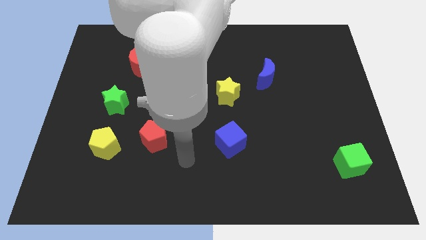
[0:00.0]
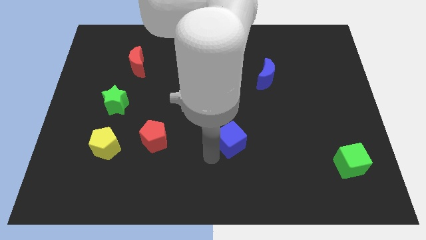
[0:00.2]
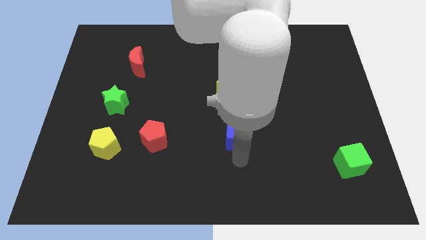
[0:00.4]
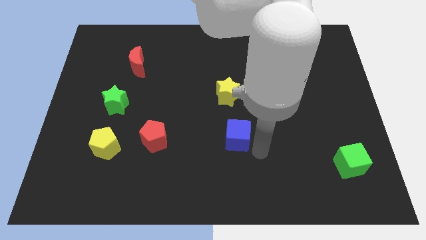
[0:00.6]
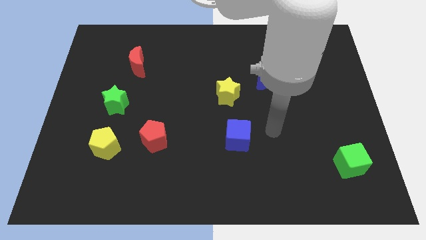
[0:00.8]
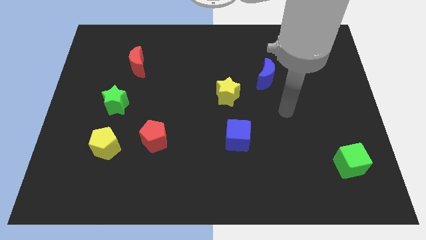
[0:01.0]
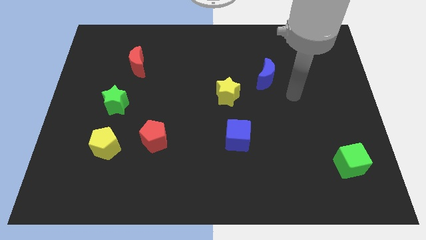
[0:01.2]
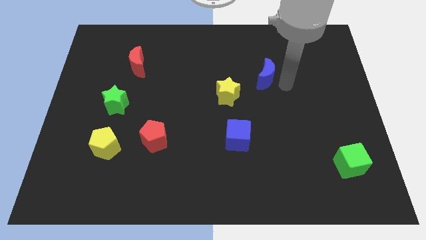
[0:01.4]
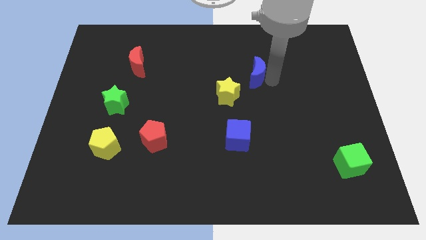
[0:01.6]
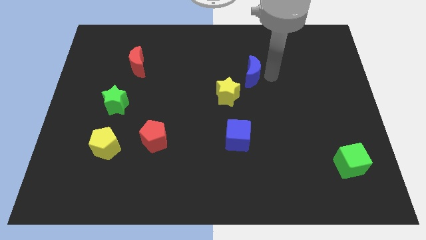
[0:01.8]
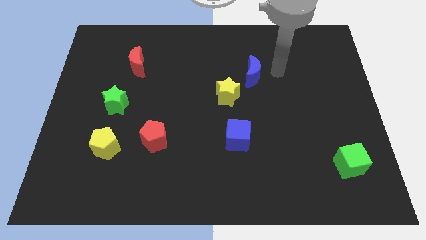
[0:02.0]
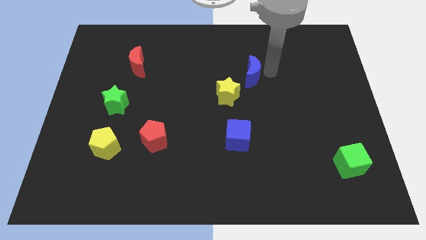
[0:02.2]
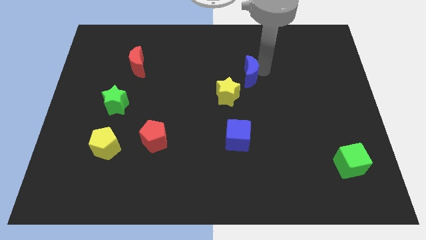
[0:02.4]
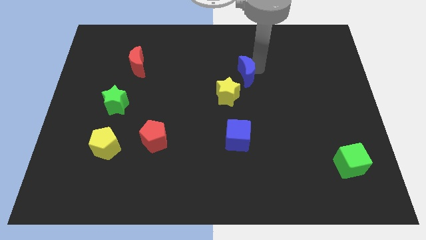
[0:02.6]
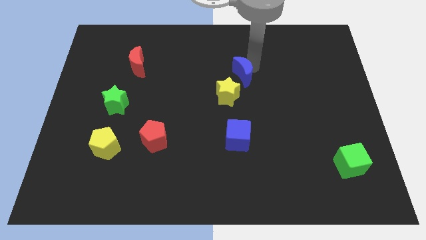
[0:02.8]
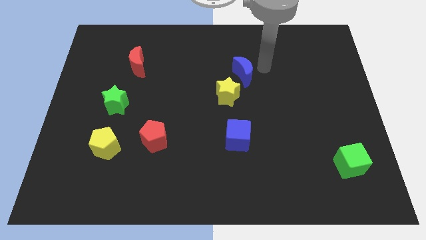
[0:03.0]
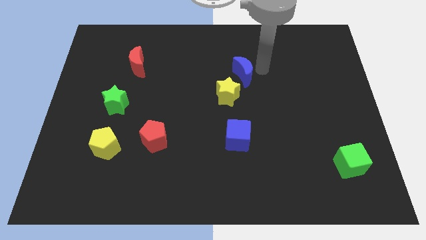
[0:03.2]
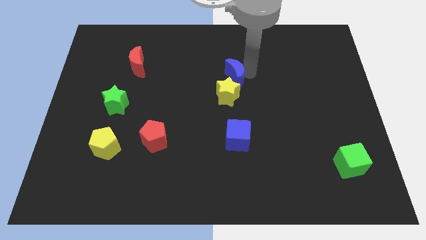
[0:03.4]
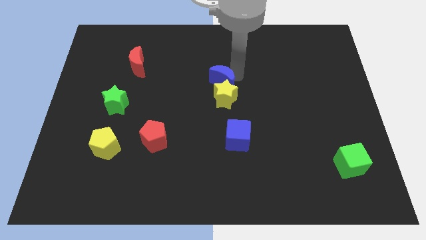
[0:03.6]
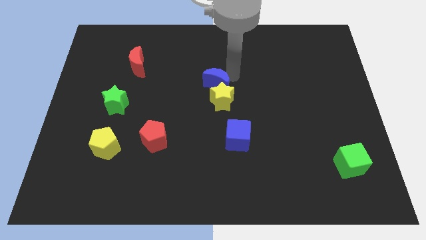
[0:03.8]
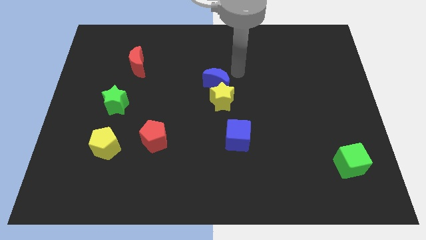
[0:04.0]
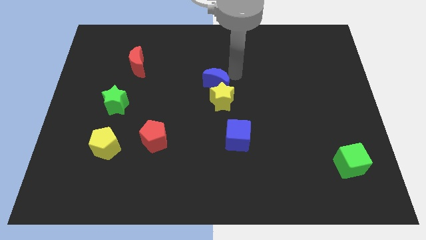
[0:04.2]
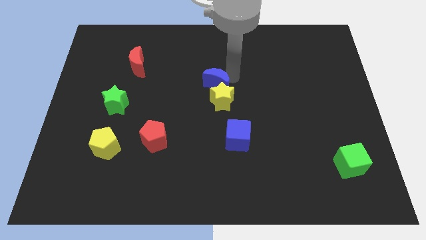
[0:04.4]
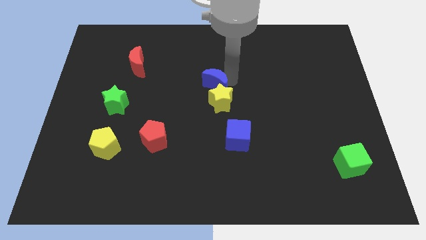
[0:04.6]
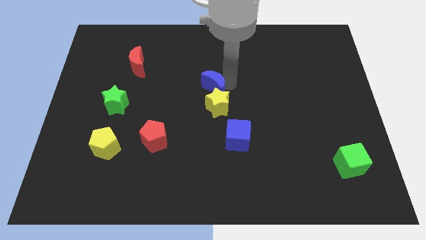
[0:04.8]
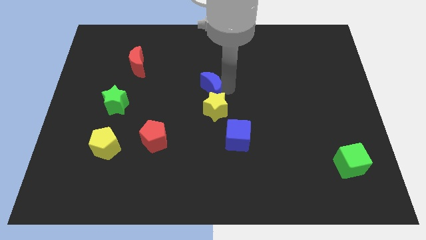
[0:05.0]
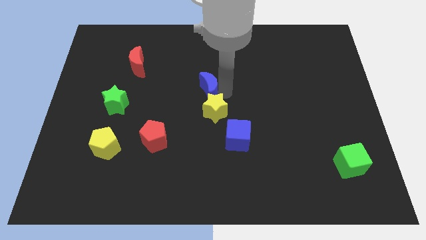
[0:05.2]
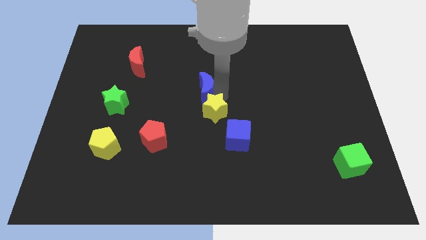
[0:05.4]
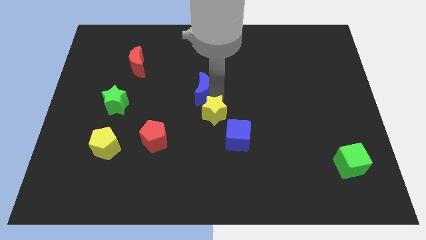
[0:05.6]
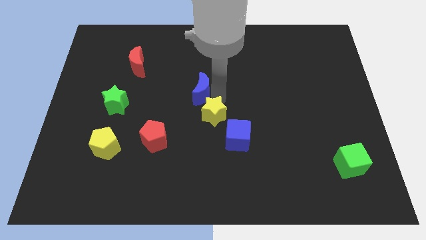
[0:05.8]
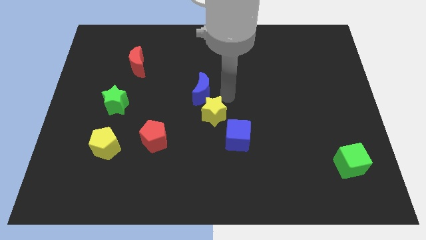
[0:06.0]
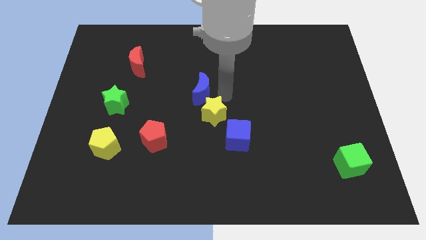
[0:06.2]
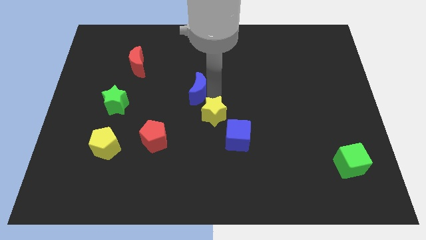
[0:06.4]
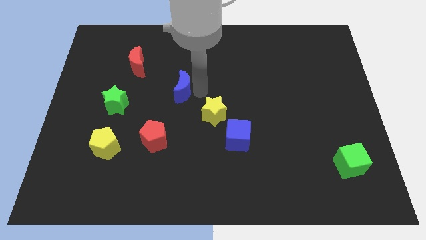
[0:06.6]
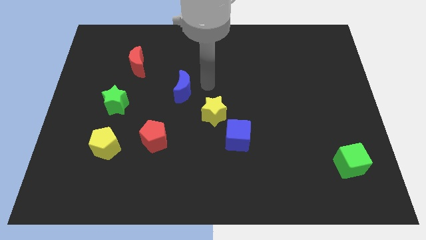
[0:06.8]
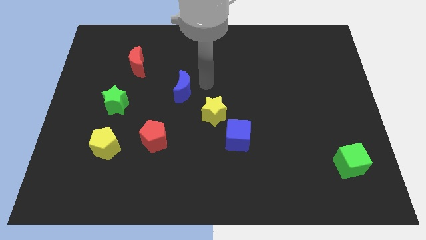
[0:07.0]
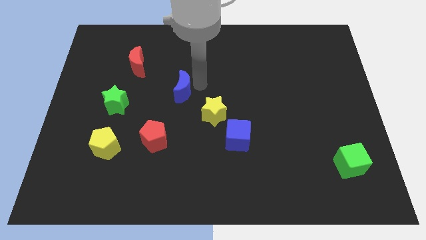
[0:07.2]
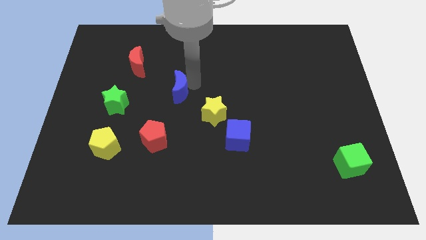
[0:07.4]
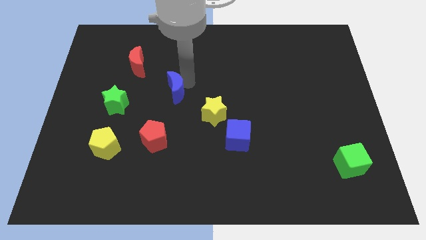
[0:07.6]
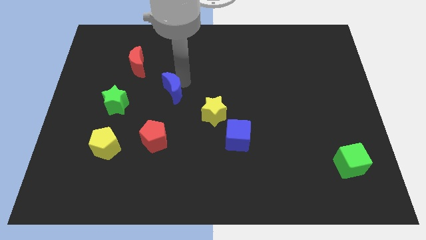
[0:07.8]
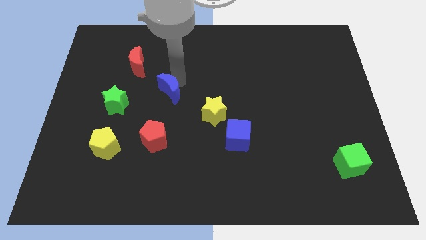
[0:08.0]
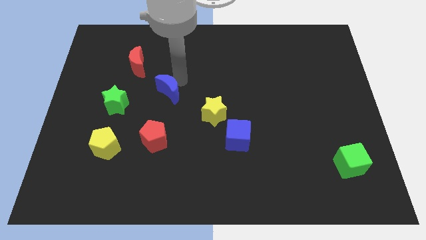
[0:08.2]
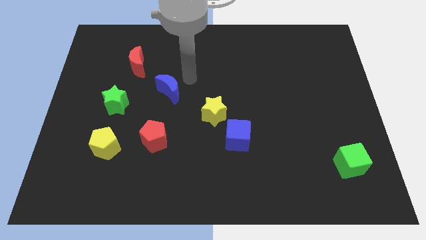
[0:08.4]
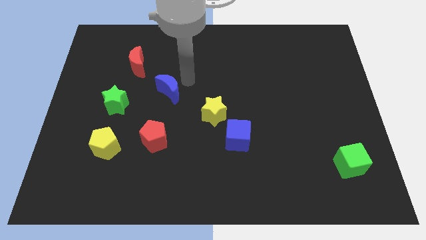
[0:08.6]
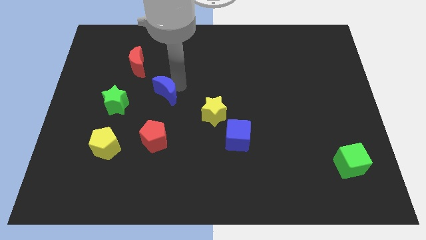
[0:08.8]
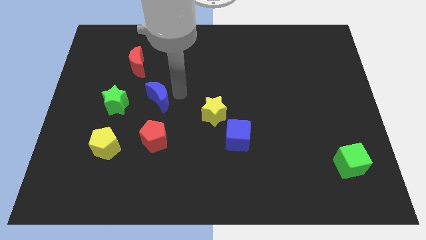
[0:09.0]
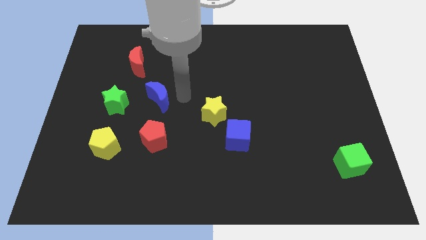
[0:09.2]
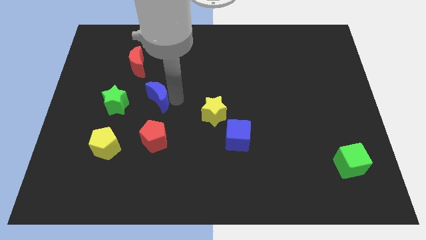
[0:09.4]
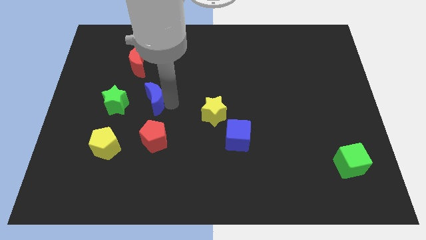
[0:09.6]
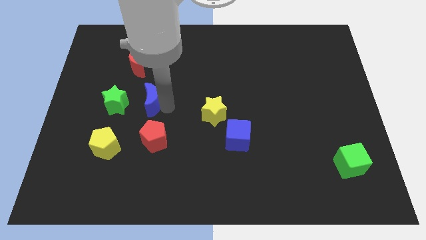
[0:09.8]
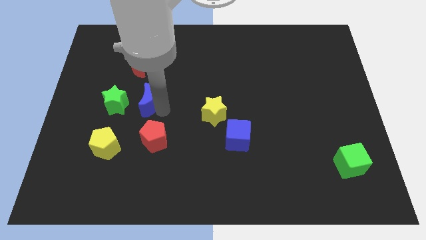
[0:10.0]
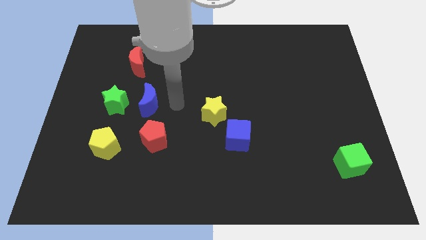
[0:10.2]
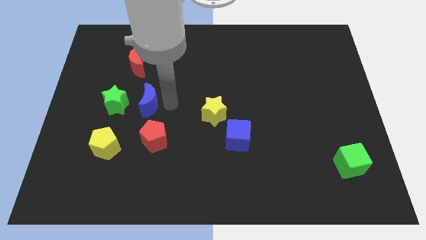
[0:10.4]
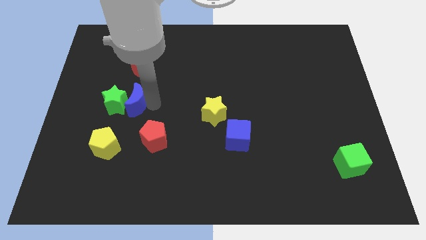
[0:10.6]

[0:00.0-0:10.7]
slide the blue moon next to the green star
